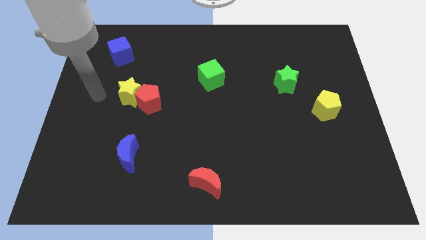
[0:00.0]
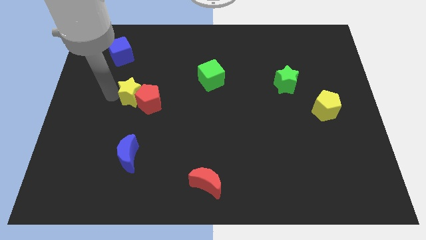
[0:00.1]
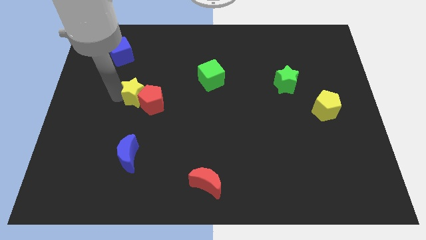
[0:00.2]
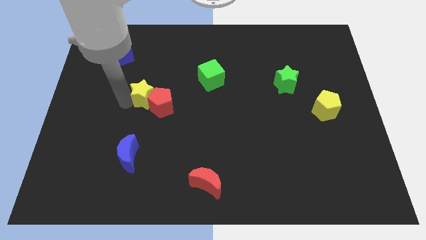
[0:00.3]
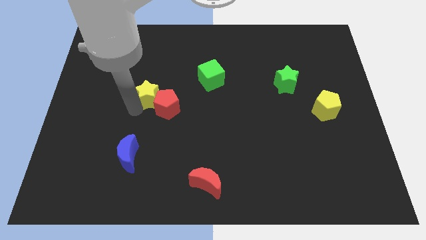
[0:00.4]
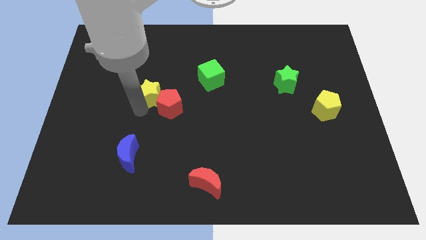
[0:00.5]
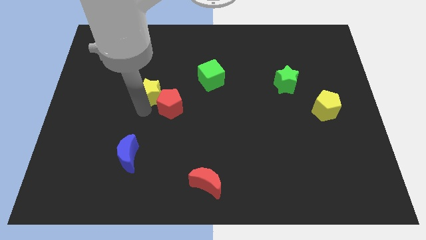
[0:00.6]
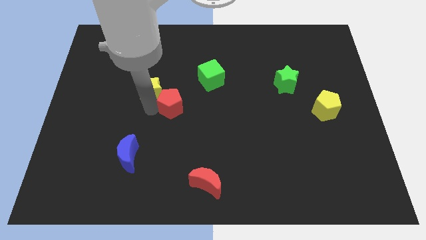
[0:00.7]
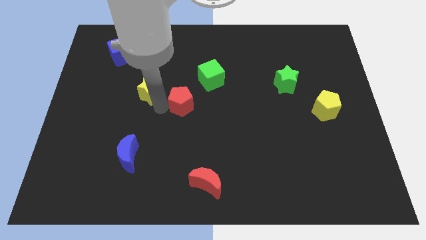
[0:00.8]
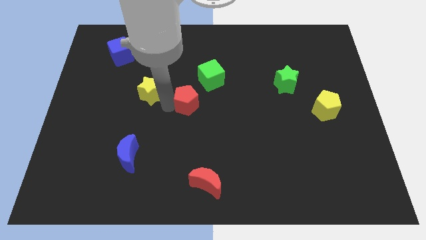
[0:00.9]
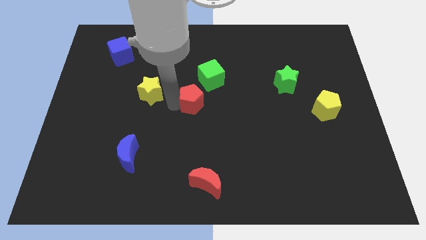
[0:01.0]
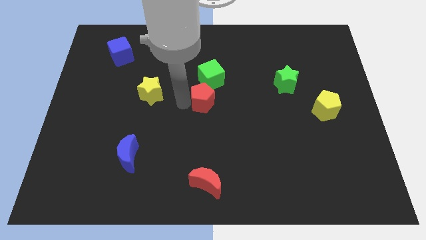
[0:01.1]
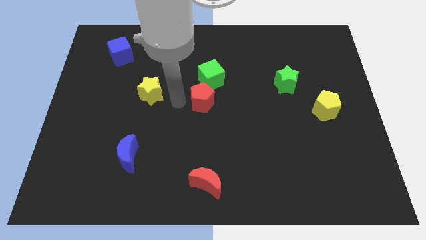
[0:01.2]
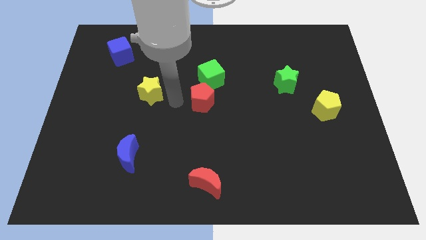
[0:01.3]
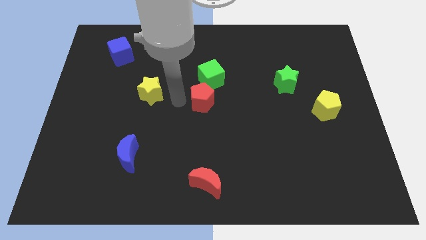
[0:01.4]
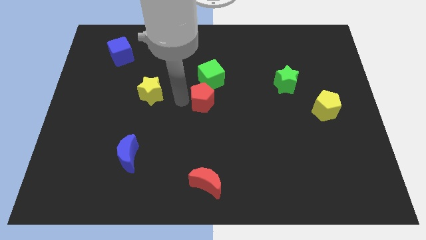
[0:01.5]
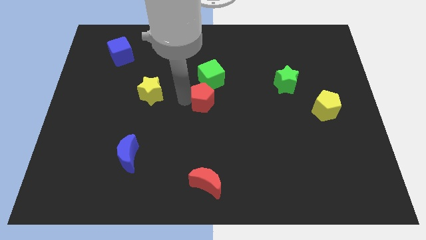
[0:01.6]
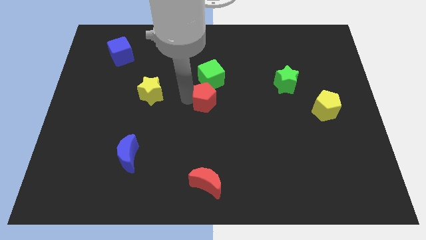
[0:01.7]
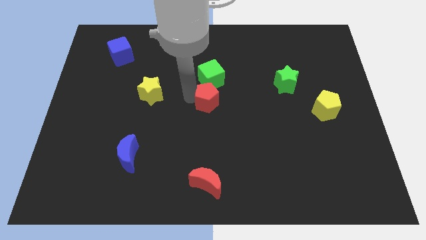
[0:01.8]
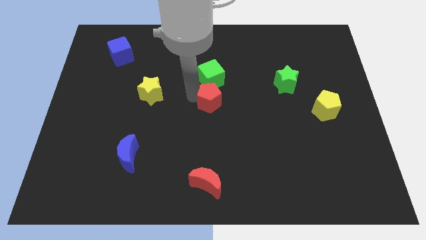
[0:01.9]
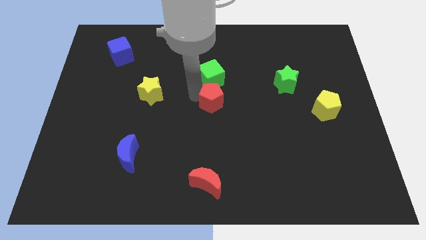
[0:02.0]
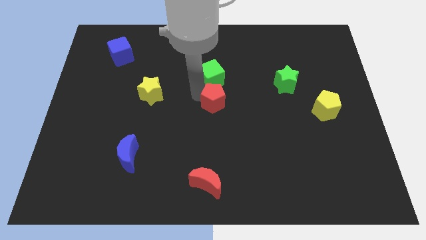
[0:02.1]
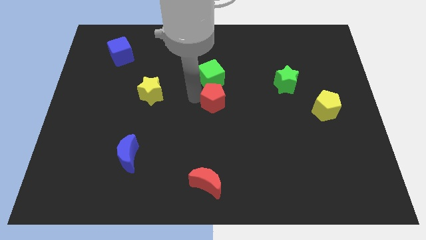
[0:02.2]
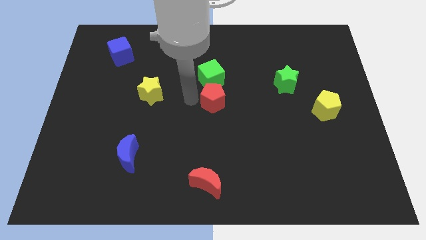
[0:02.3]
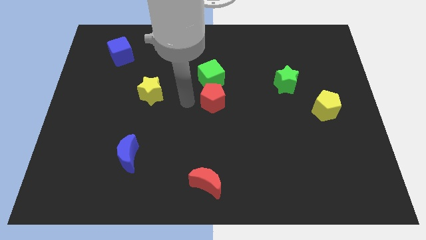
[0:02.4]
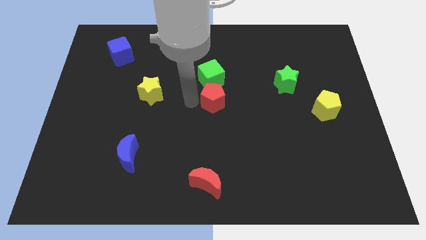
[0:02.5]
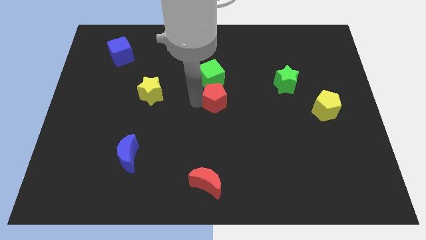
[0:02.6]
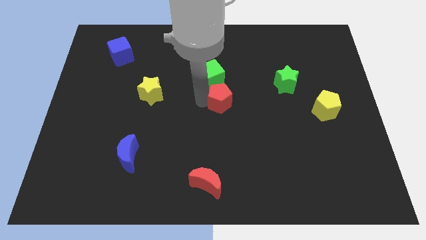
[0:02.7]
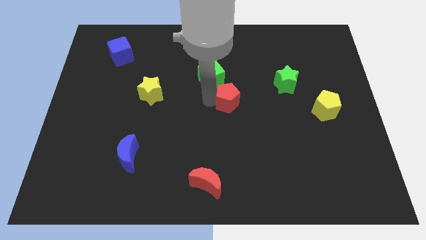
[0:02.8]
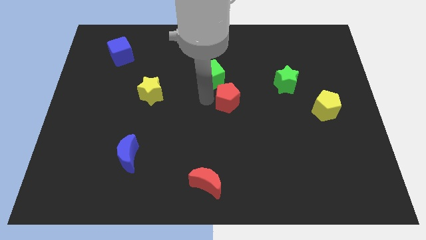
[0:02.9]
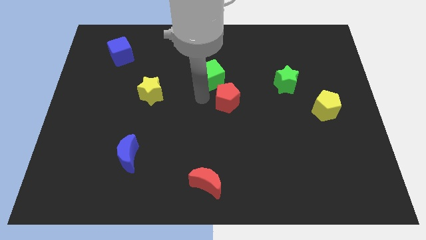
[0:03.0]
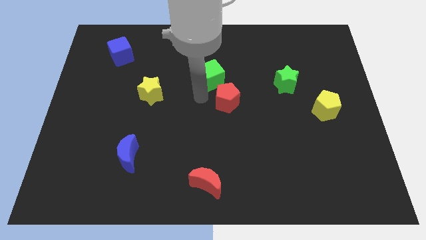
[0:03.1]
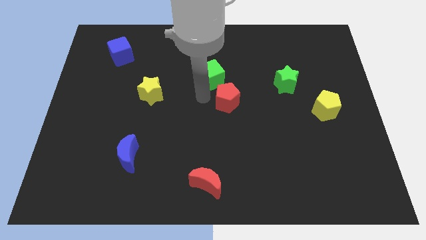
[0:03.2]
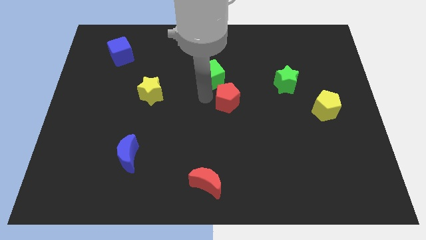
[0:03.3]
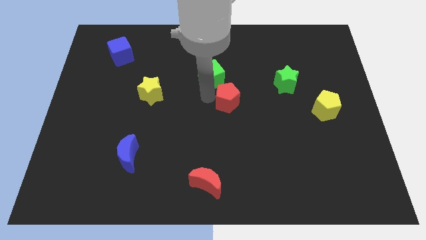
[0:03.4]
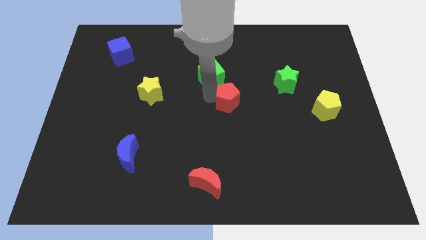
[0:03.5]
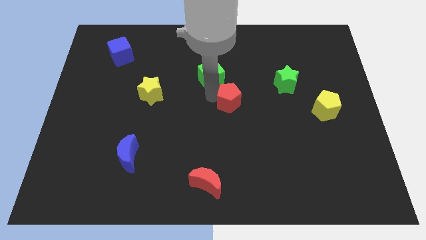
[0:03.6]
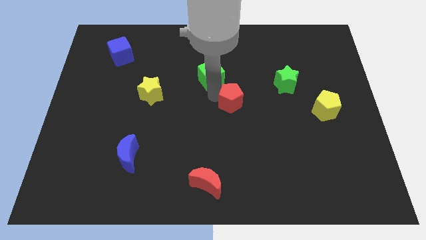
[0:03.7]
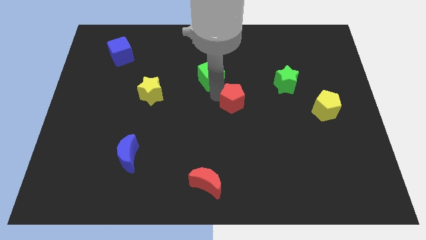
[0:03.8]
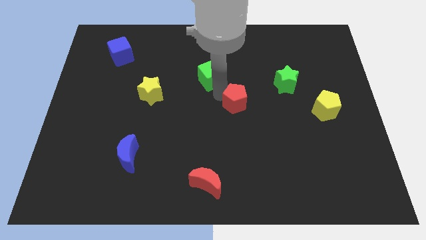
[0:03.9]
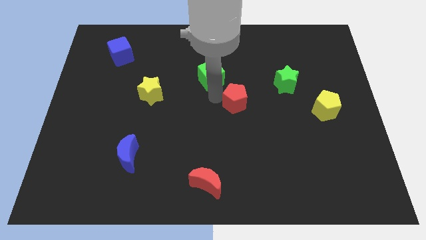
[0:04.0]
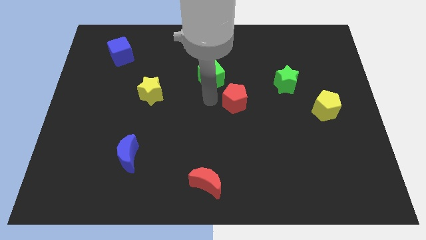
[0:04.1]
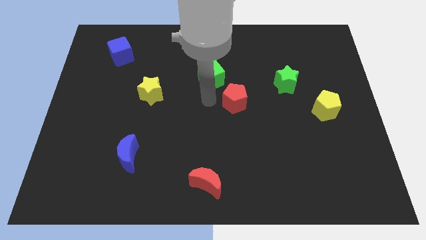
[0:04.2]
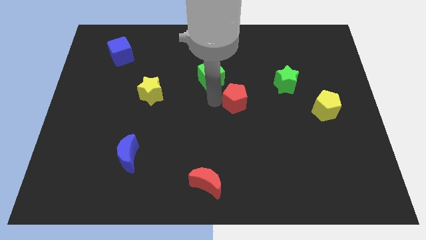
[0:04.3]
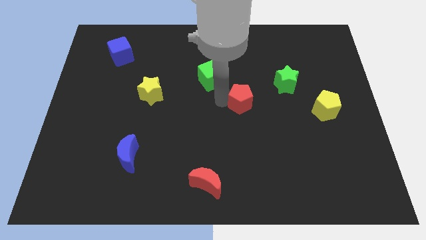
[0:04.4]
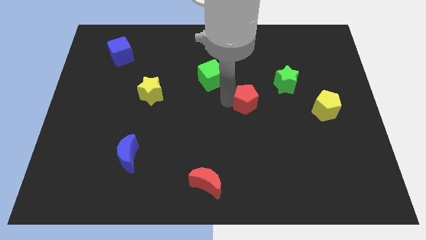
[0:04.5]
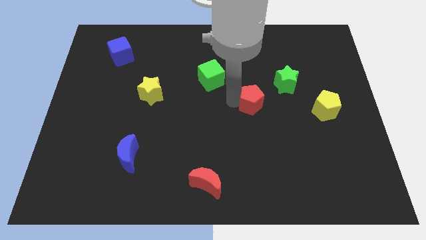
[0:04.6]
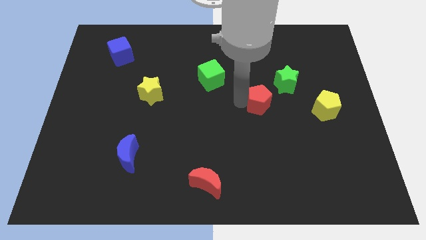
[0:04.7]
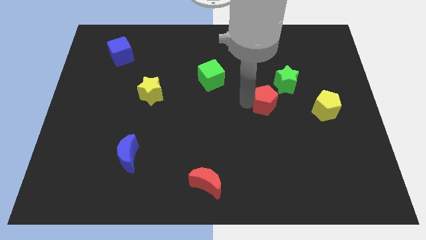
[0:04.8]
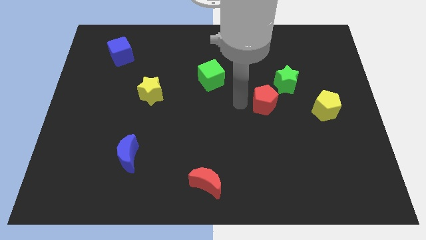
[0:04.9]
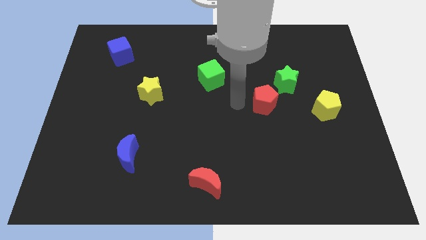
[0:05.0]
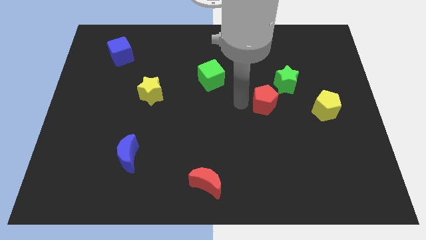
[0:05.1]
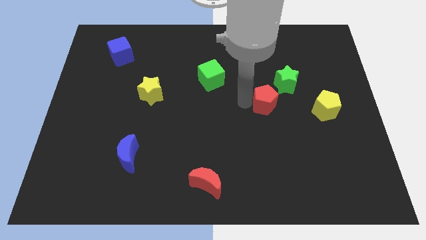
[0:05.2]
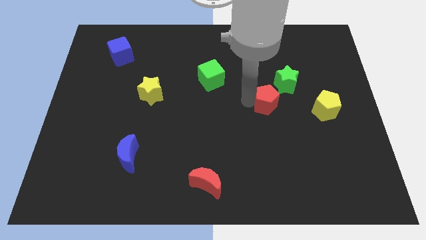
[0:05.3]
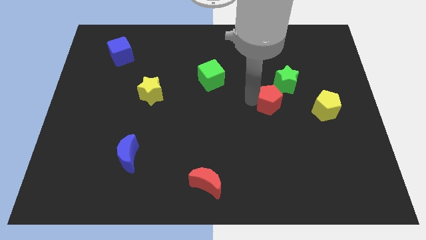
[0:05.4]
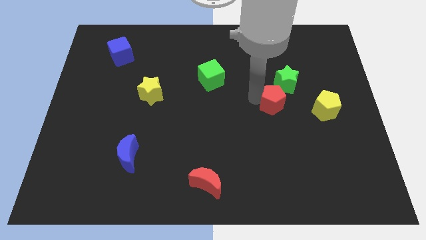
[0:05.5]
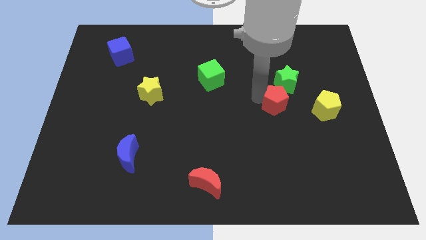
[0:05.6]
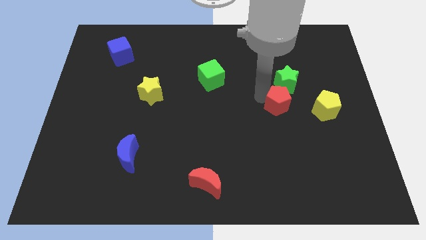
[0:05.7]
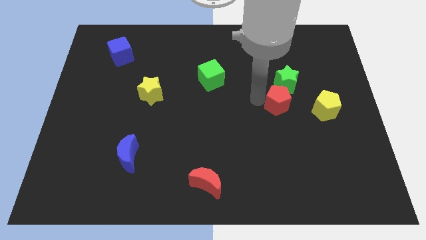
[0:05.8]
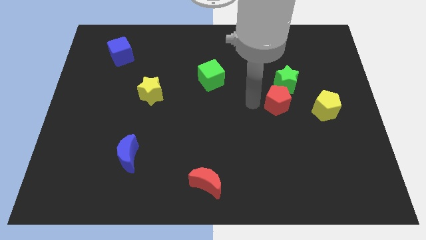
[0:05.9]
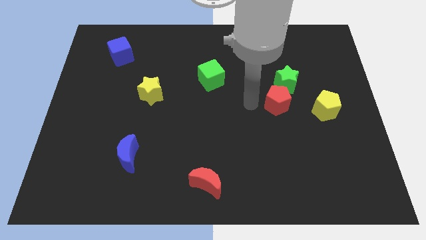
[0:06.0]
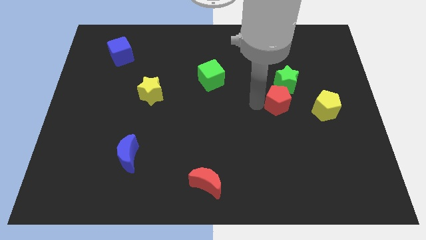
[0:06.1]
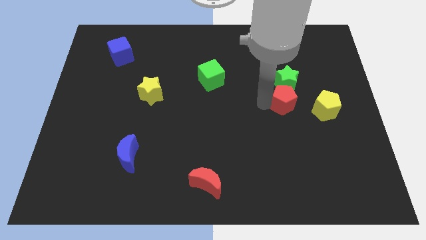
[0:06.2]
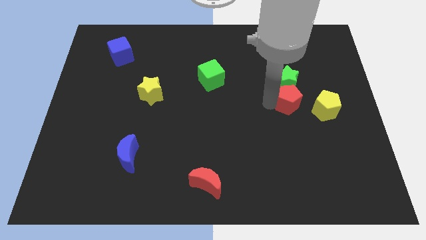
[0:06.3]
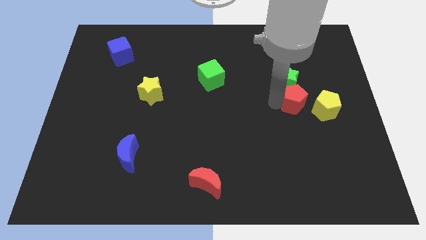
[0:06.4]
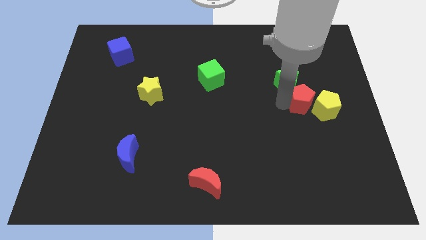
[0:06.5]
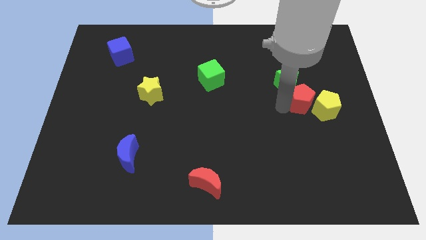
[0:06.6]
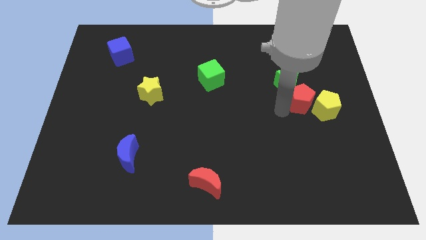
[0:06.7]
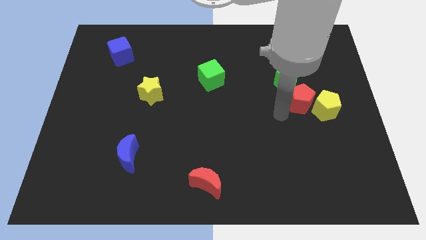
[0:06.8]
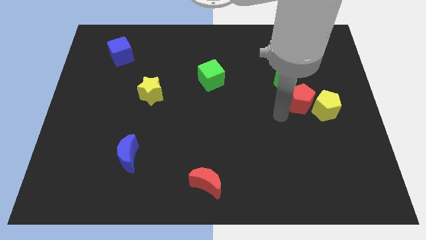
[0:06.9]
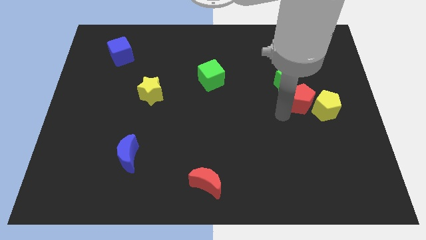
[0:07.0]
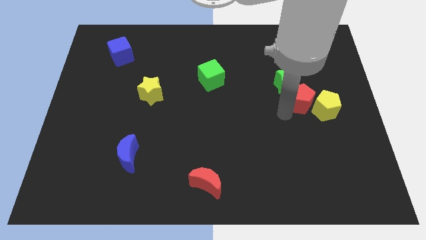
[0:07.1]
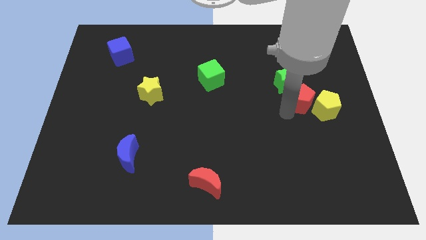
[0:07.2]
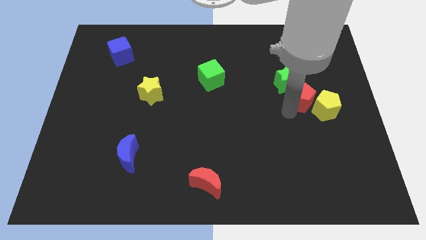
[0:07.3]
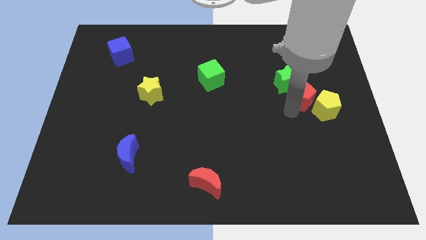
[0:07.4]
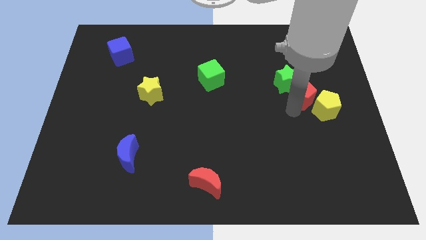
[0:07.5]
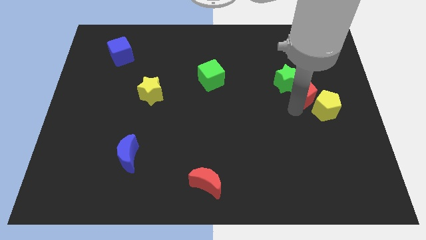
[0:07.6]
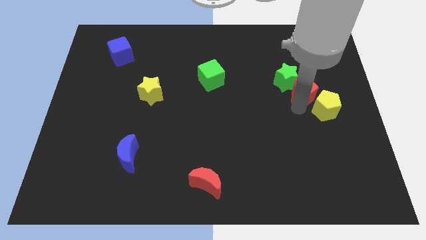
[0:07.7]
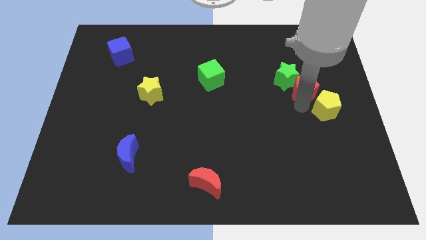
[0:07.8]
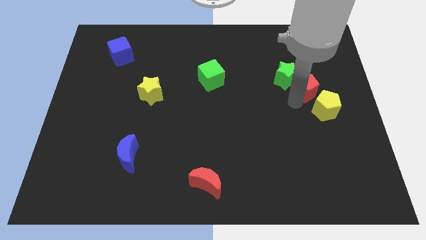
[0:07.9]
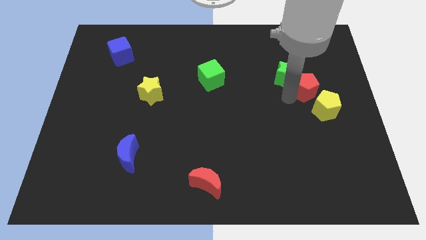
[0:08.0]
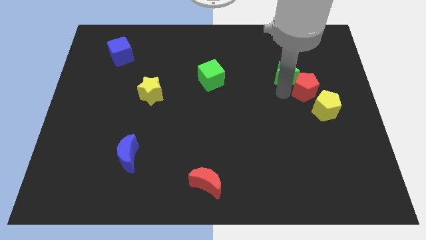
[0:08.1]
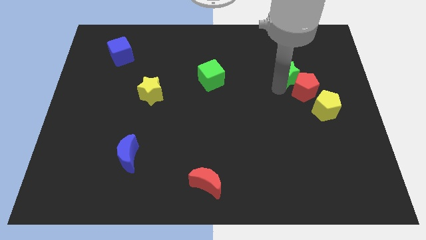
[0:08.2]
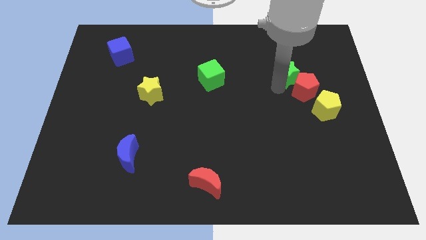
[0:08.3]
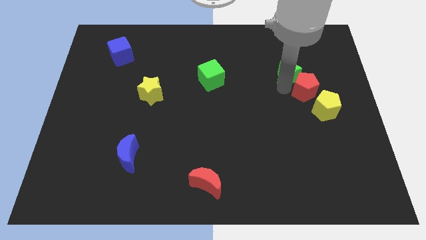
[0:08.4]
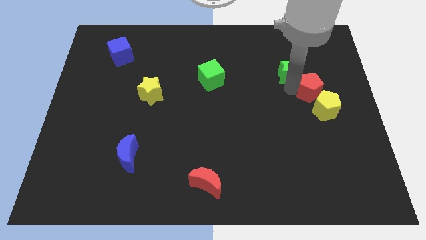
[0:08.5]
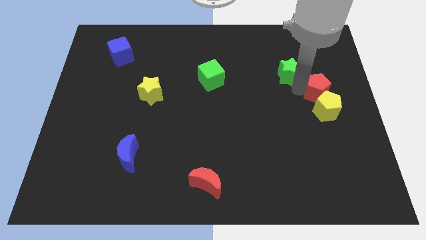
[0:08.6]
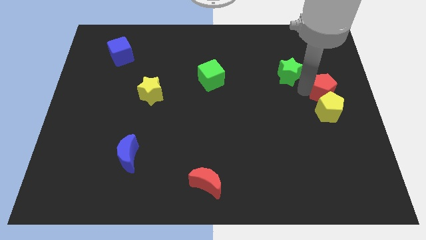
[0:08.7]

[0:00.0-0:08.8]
move the red pentagon to the right side of the board
